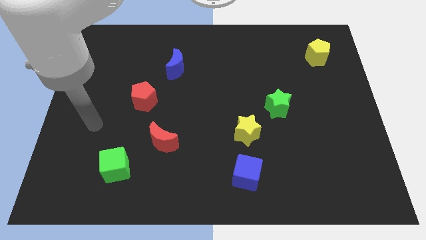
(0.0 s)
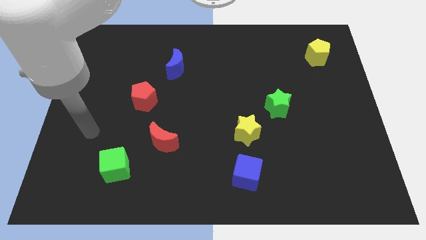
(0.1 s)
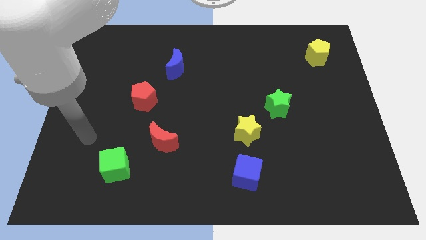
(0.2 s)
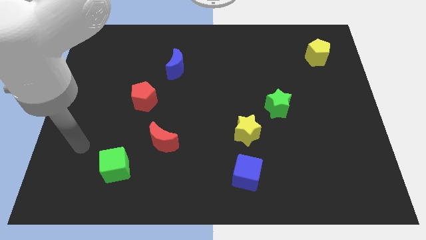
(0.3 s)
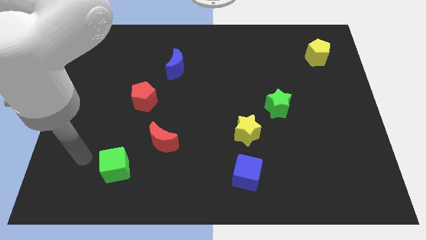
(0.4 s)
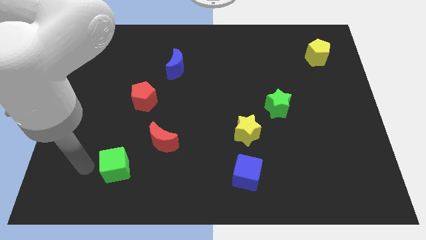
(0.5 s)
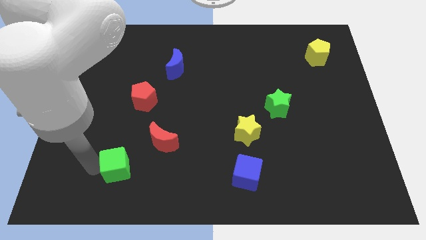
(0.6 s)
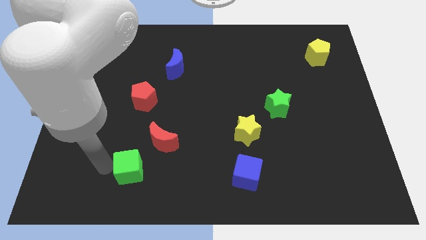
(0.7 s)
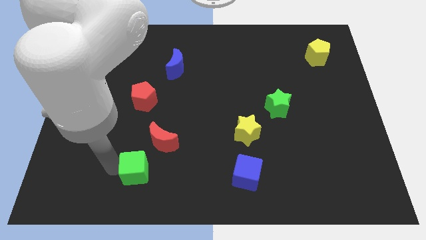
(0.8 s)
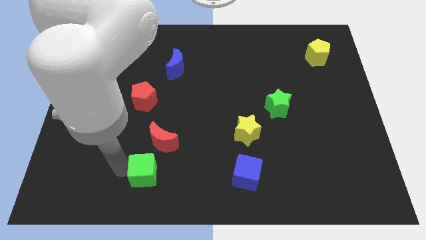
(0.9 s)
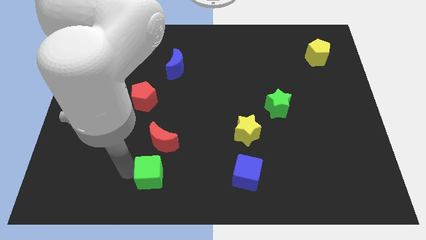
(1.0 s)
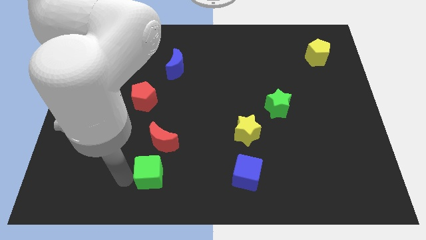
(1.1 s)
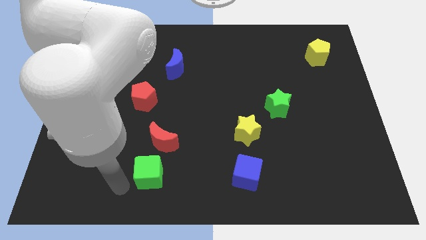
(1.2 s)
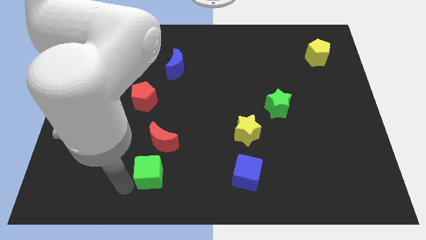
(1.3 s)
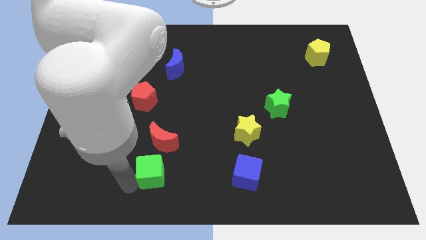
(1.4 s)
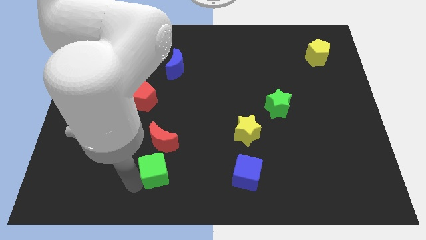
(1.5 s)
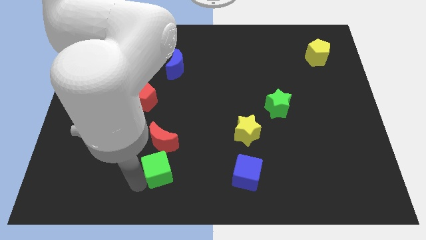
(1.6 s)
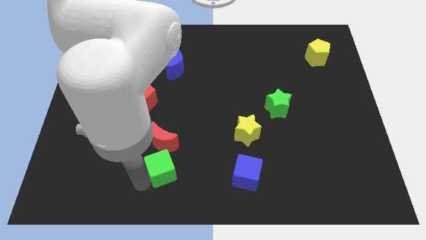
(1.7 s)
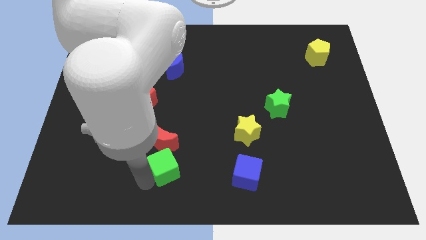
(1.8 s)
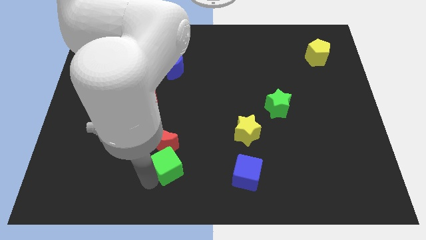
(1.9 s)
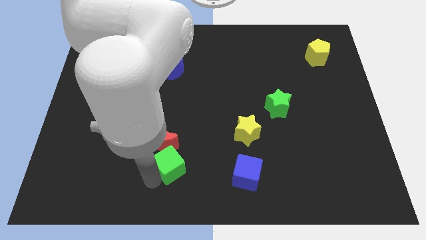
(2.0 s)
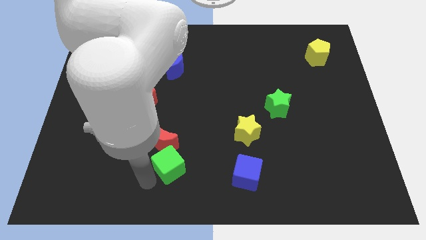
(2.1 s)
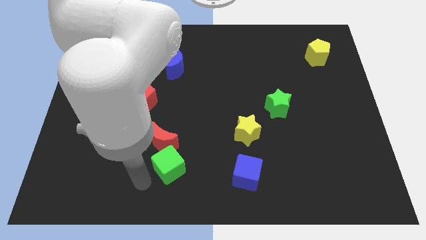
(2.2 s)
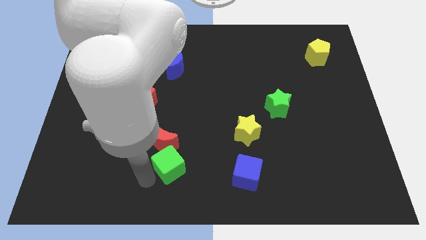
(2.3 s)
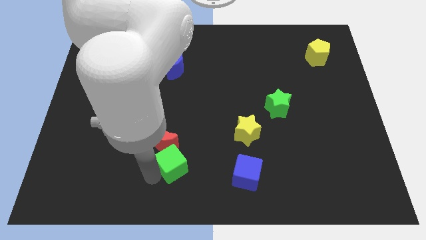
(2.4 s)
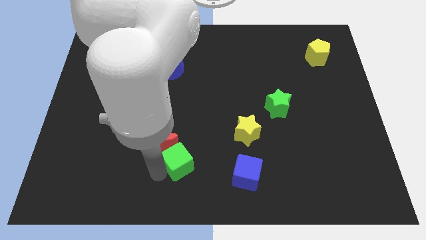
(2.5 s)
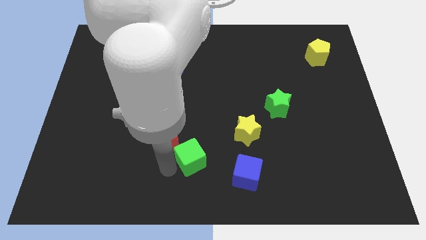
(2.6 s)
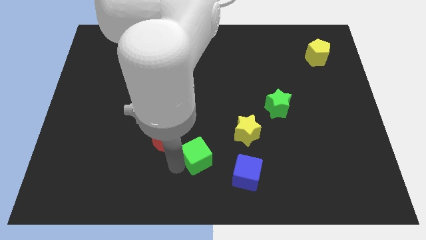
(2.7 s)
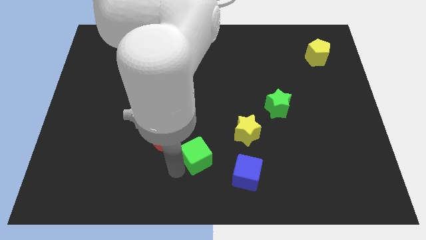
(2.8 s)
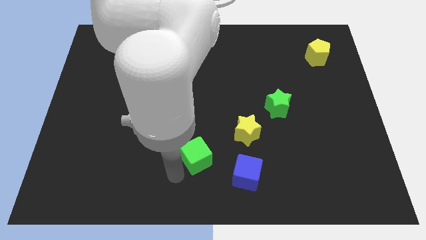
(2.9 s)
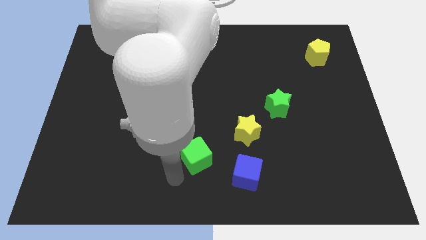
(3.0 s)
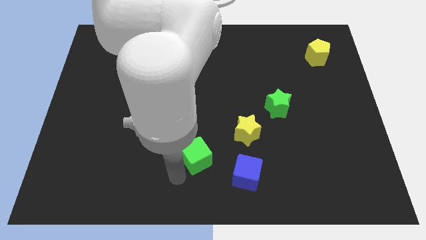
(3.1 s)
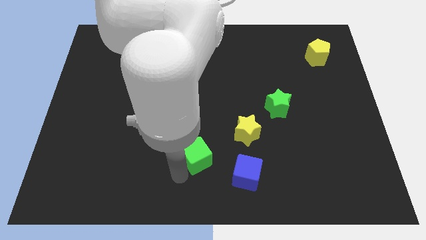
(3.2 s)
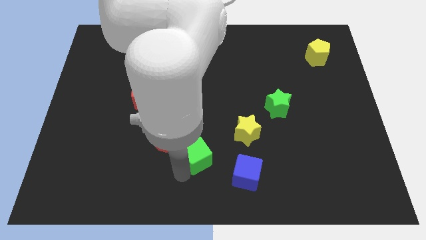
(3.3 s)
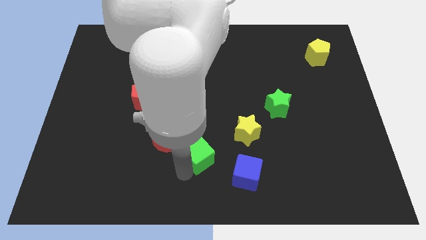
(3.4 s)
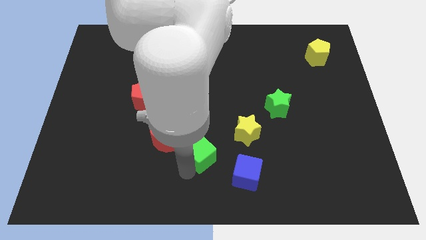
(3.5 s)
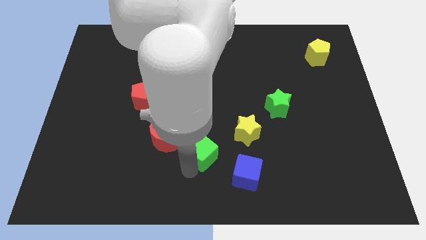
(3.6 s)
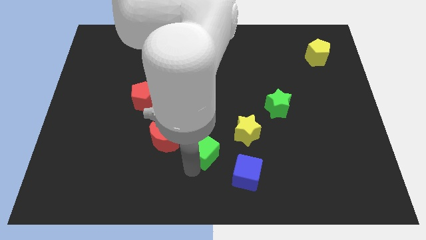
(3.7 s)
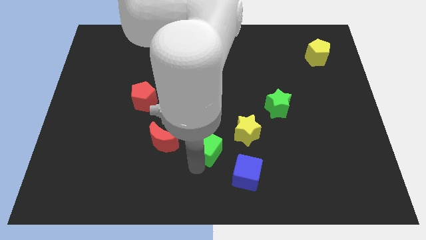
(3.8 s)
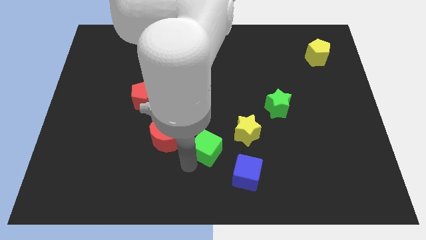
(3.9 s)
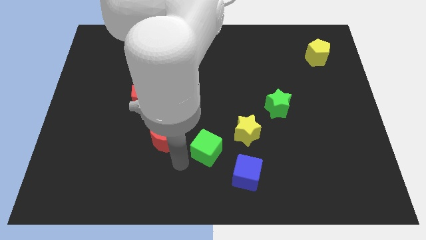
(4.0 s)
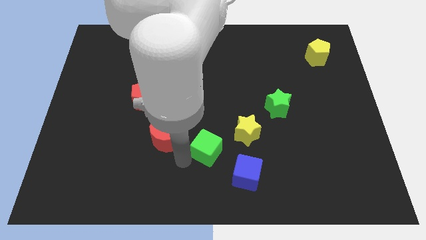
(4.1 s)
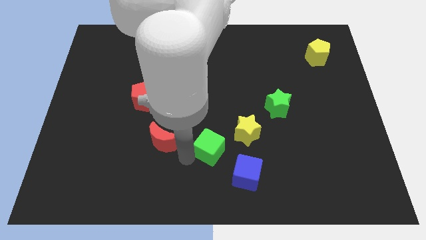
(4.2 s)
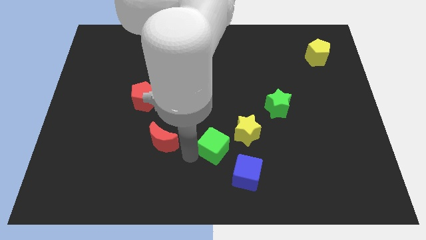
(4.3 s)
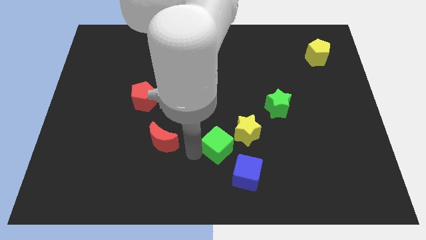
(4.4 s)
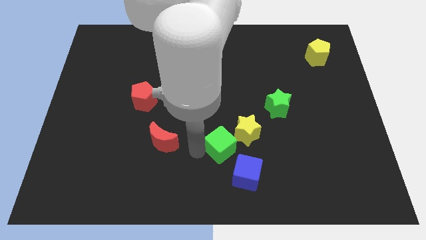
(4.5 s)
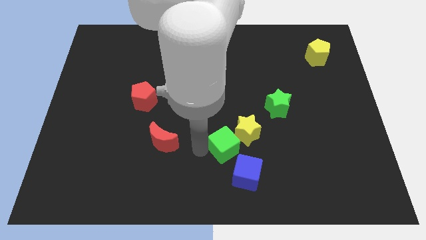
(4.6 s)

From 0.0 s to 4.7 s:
put the green cube next to the yellow star

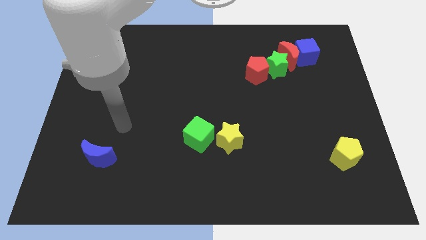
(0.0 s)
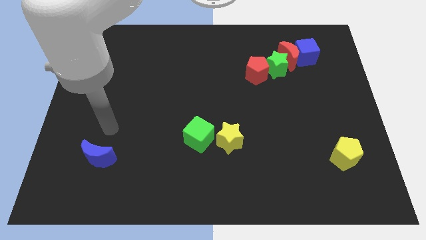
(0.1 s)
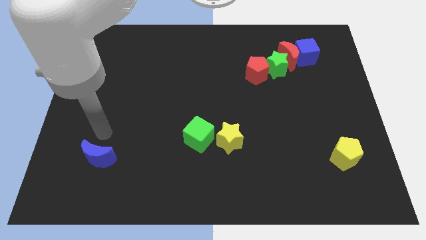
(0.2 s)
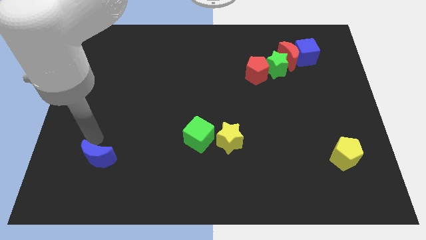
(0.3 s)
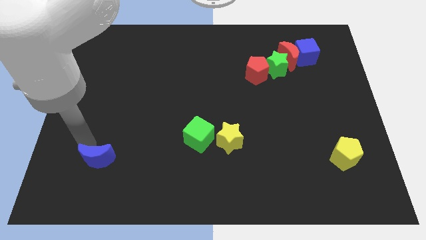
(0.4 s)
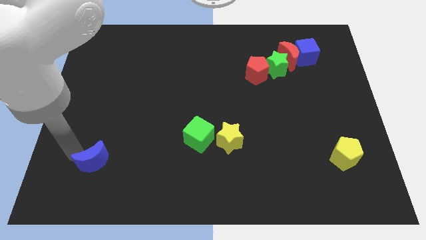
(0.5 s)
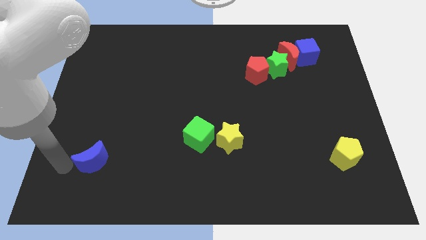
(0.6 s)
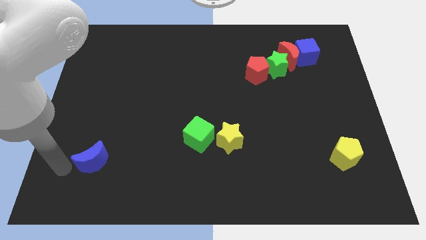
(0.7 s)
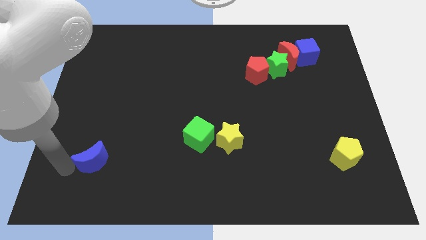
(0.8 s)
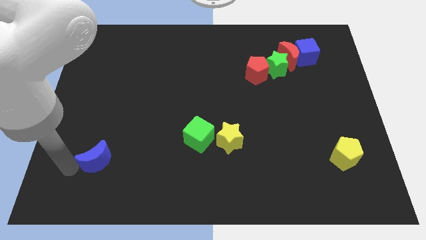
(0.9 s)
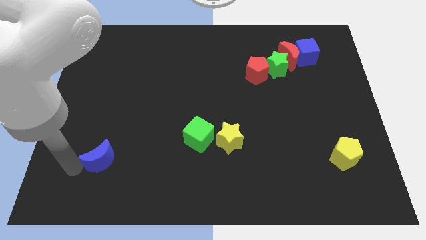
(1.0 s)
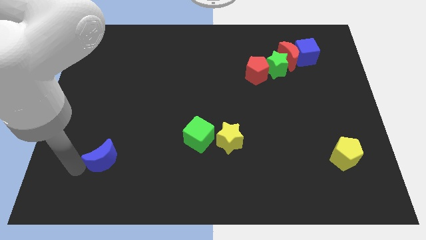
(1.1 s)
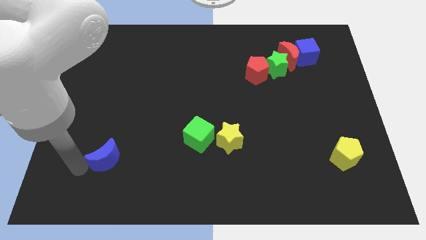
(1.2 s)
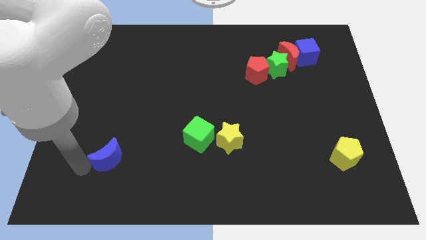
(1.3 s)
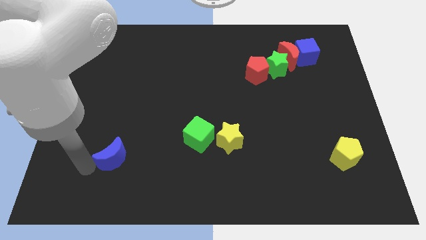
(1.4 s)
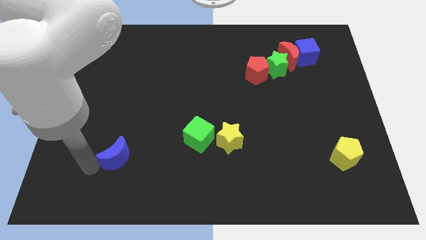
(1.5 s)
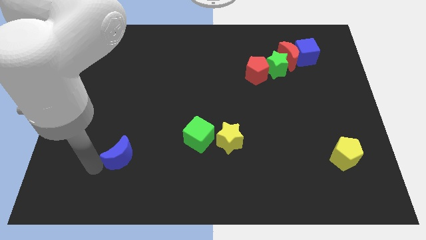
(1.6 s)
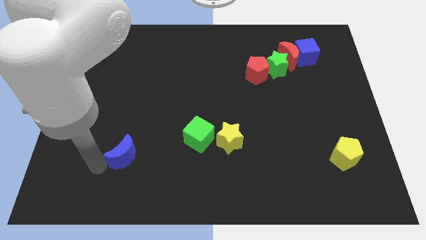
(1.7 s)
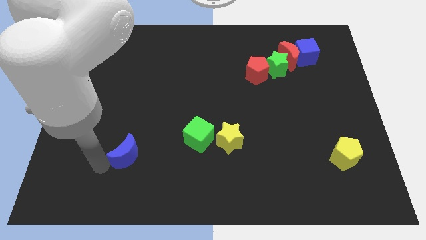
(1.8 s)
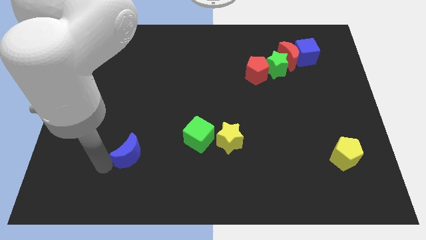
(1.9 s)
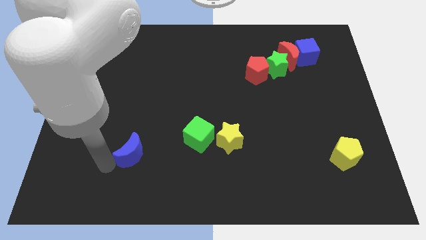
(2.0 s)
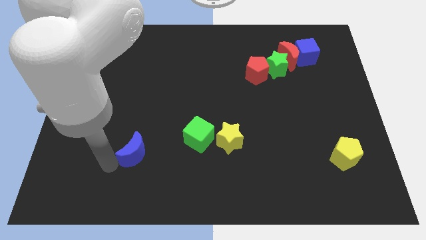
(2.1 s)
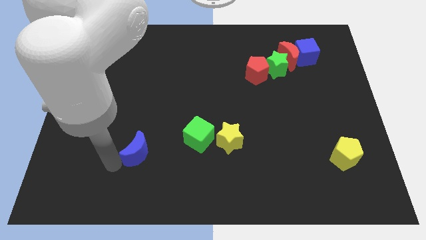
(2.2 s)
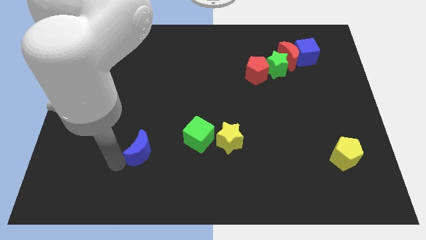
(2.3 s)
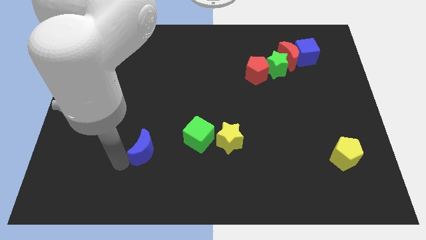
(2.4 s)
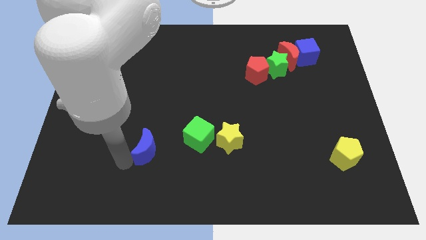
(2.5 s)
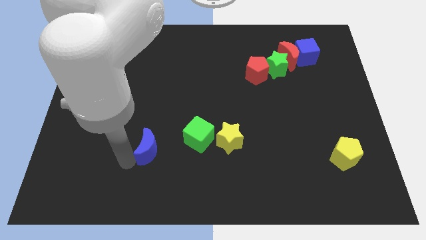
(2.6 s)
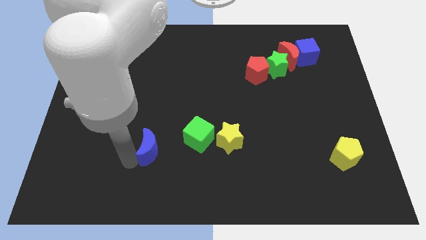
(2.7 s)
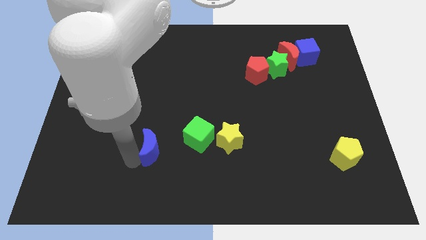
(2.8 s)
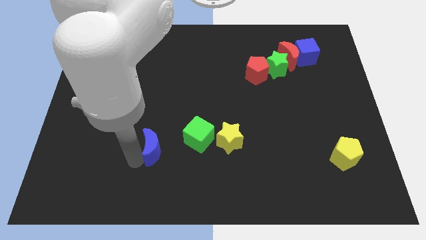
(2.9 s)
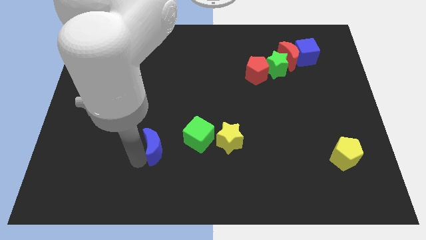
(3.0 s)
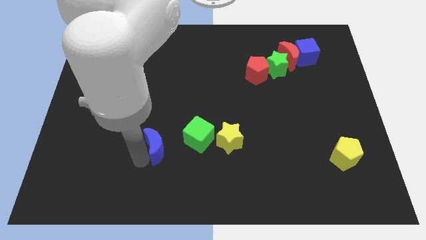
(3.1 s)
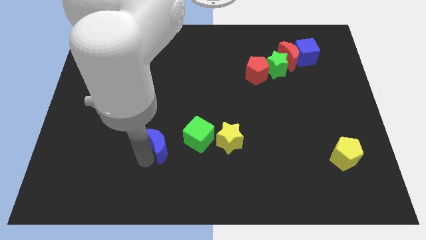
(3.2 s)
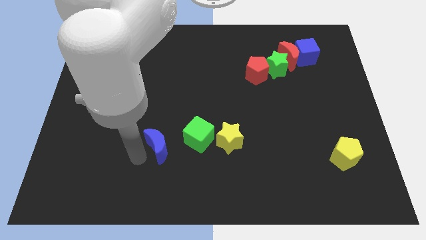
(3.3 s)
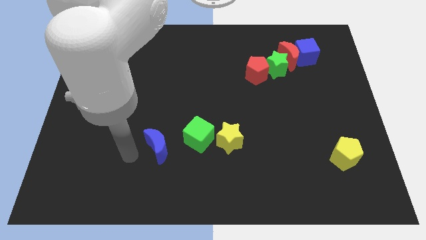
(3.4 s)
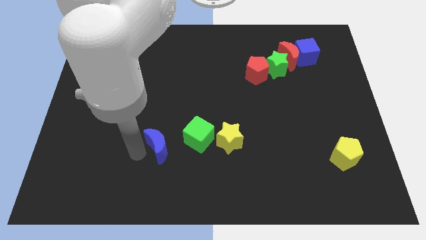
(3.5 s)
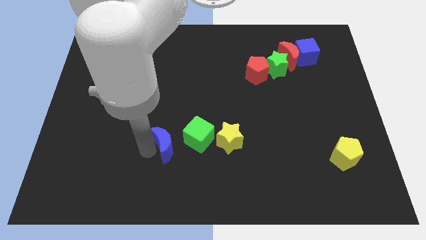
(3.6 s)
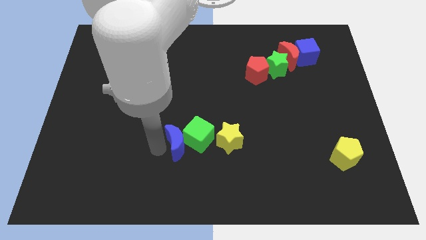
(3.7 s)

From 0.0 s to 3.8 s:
move the blue moon next to the green cube
